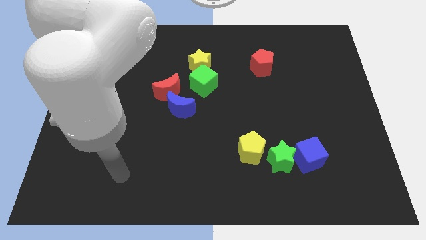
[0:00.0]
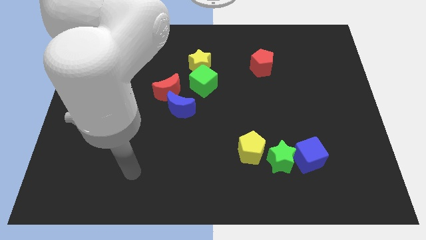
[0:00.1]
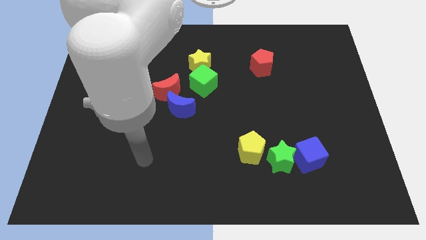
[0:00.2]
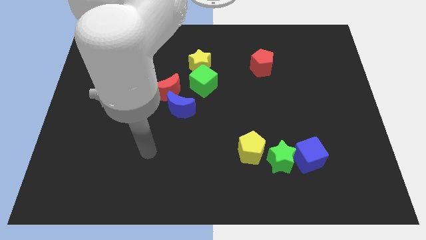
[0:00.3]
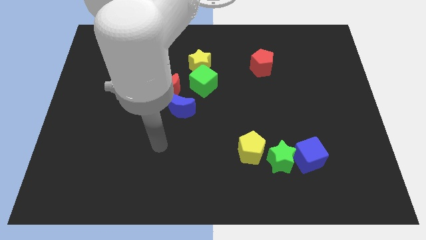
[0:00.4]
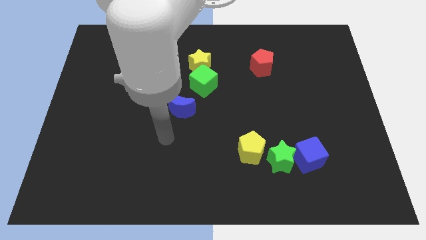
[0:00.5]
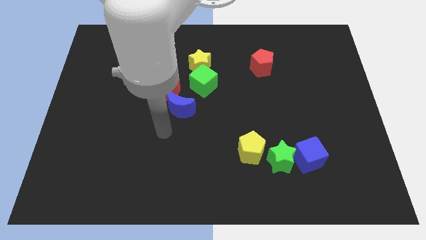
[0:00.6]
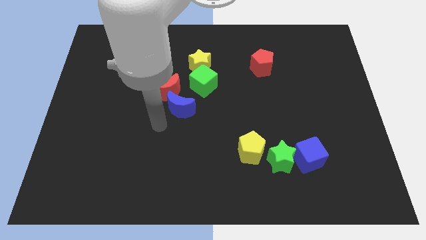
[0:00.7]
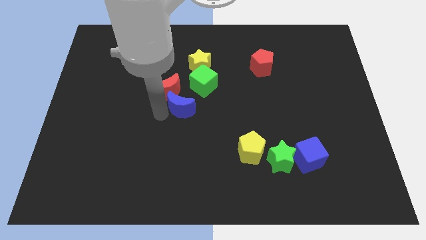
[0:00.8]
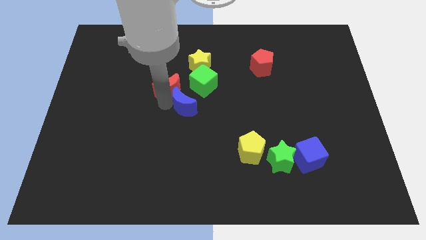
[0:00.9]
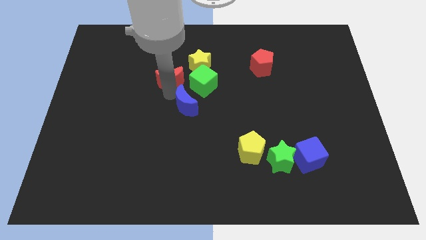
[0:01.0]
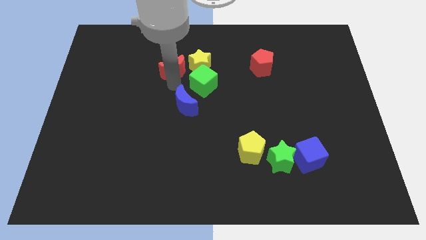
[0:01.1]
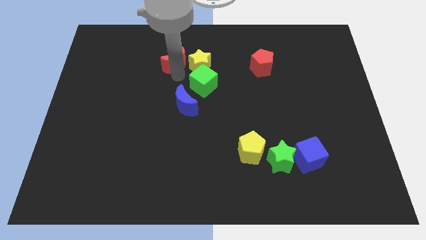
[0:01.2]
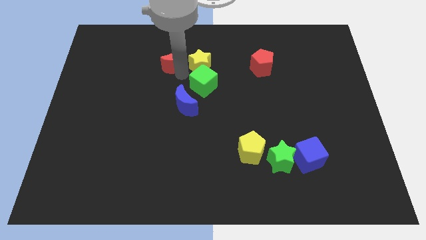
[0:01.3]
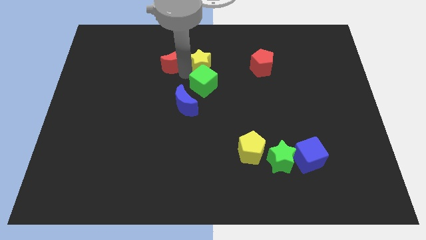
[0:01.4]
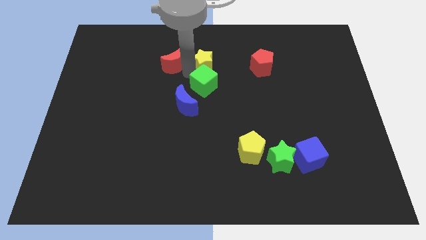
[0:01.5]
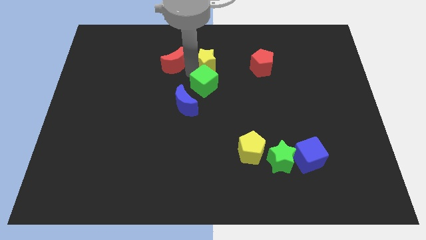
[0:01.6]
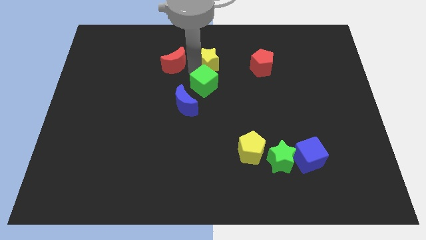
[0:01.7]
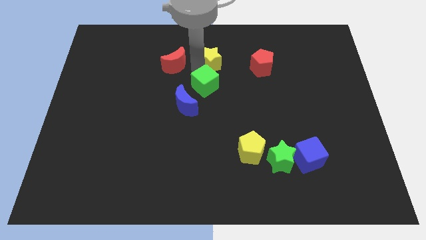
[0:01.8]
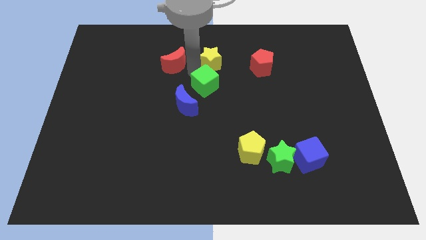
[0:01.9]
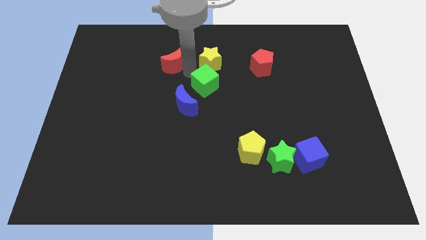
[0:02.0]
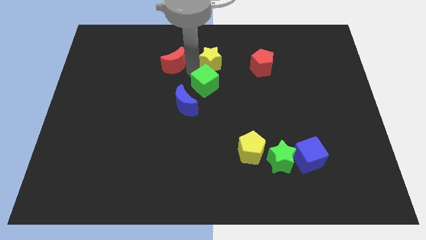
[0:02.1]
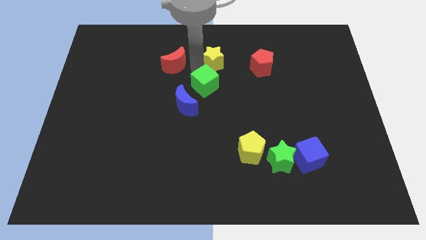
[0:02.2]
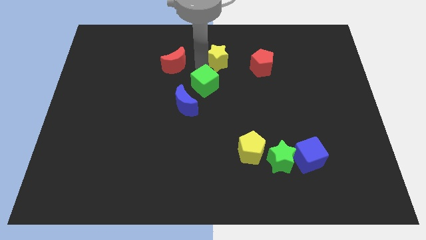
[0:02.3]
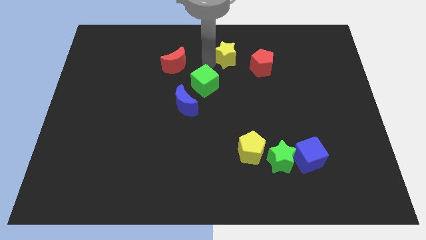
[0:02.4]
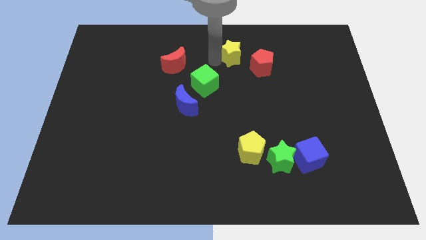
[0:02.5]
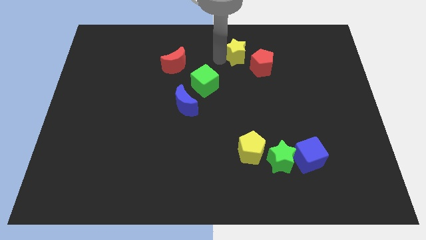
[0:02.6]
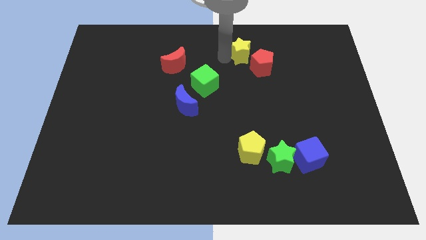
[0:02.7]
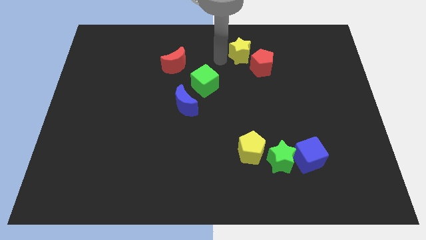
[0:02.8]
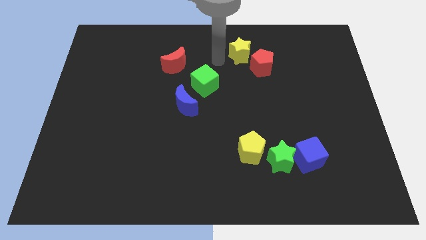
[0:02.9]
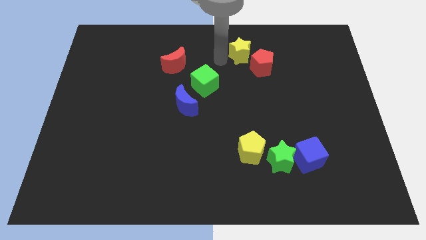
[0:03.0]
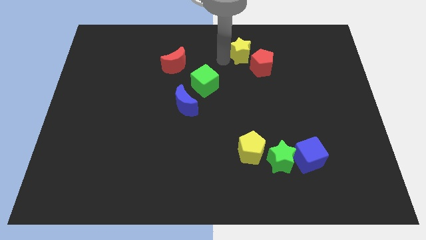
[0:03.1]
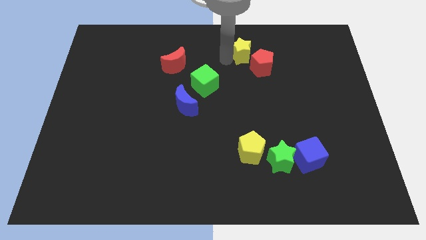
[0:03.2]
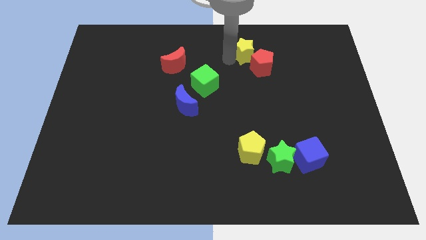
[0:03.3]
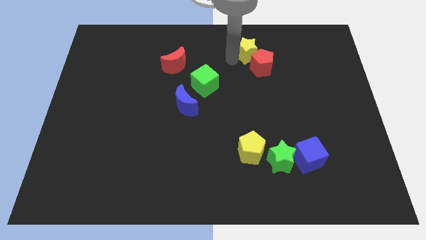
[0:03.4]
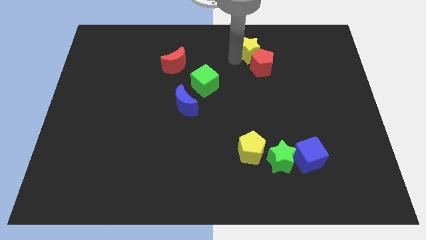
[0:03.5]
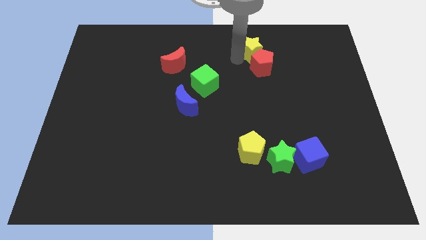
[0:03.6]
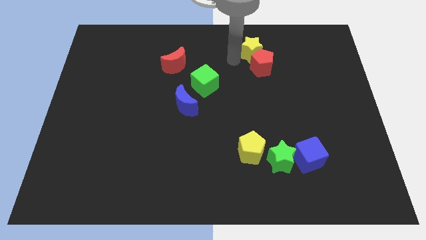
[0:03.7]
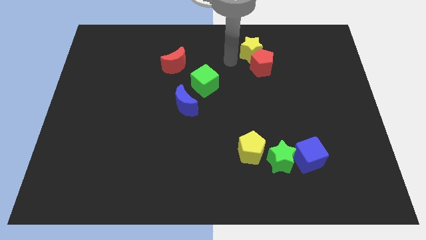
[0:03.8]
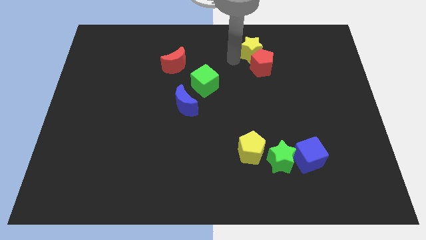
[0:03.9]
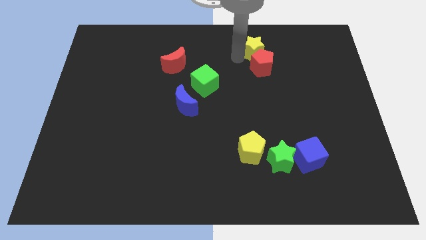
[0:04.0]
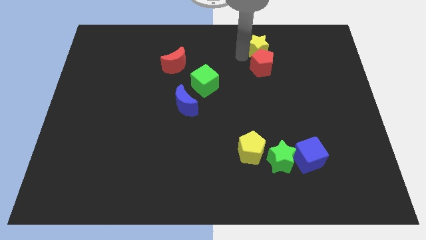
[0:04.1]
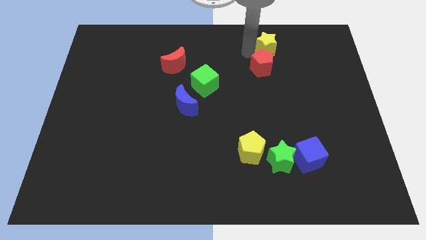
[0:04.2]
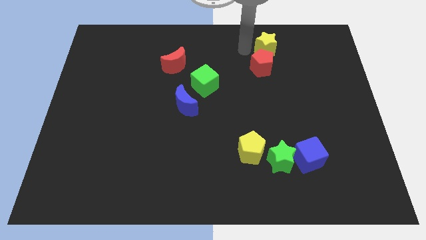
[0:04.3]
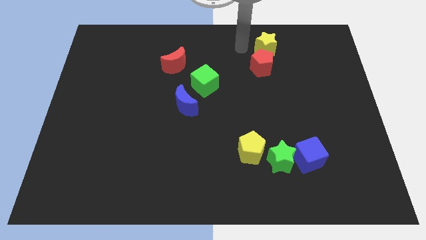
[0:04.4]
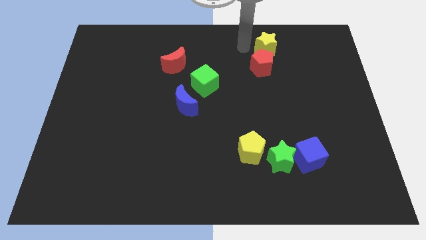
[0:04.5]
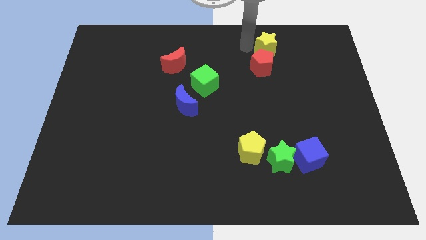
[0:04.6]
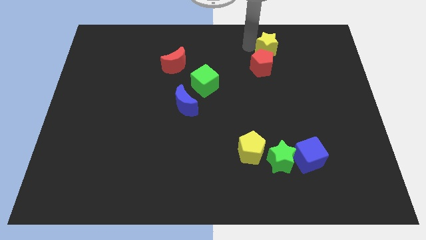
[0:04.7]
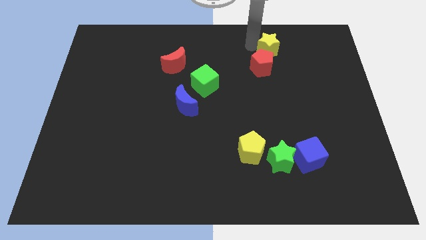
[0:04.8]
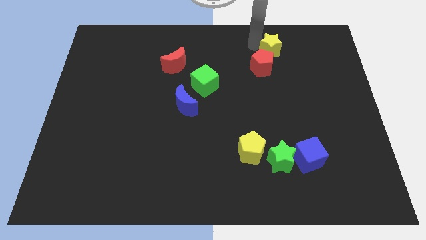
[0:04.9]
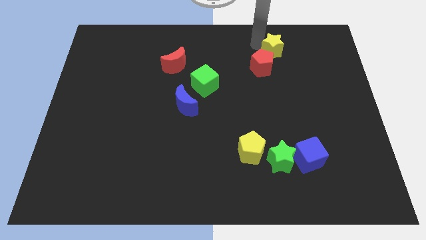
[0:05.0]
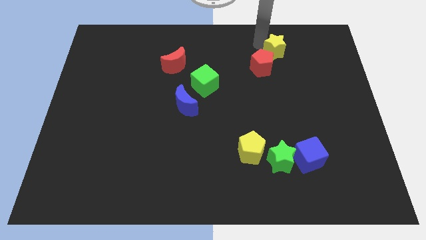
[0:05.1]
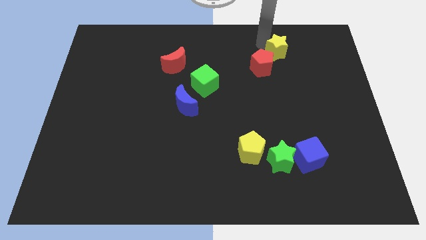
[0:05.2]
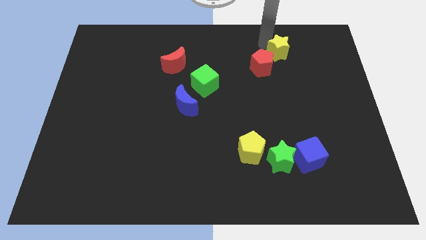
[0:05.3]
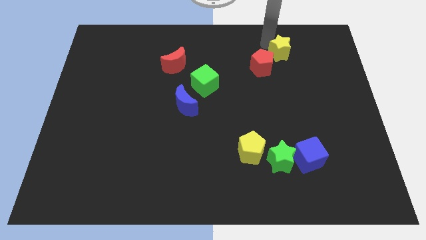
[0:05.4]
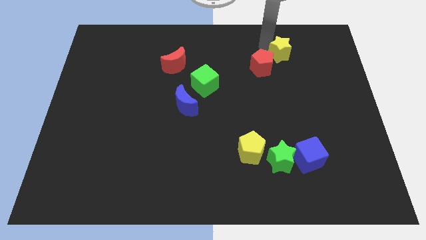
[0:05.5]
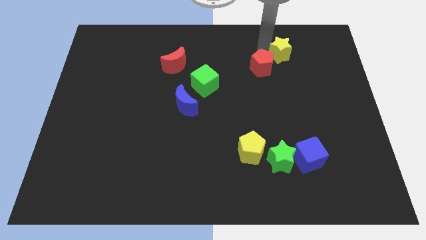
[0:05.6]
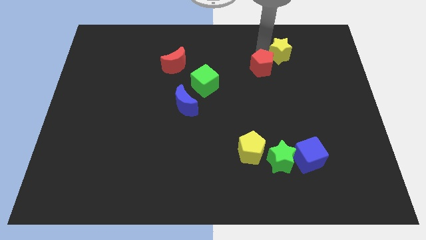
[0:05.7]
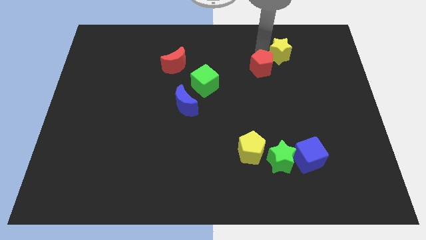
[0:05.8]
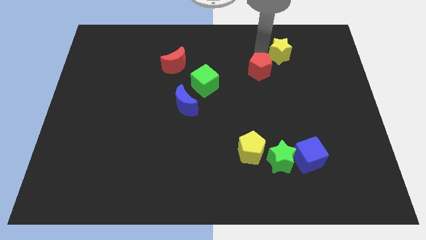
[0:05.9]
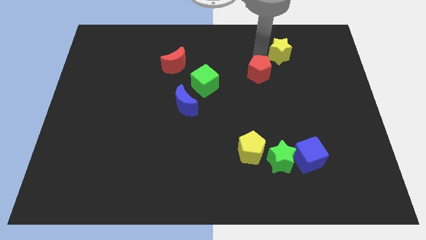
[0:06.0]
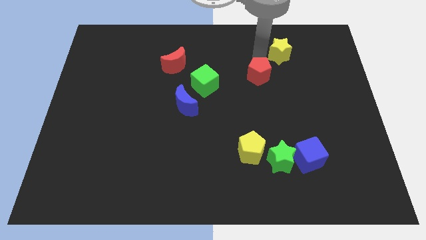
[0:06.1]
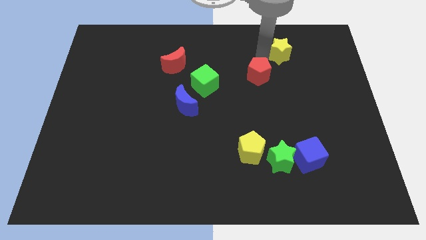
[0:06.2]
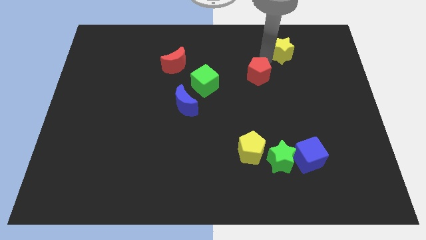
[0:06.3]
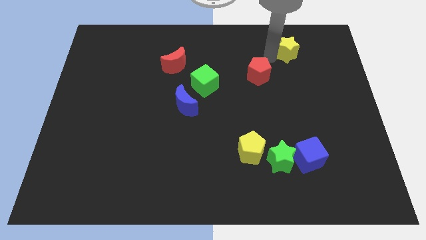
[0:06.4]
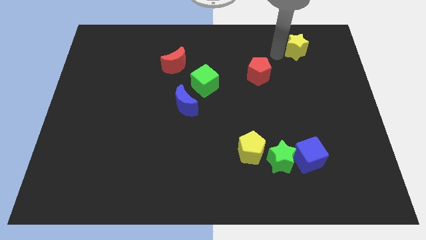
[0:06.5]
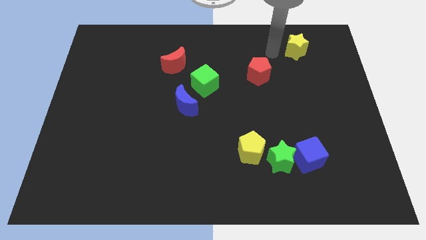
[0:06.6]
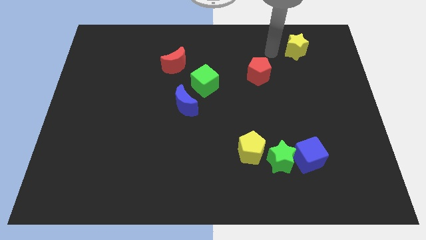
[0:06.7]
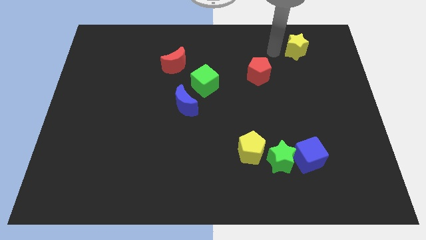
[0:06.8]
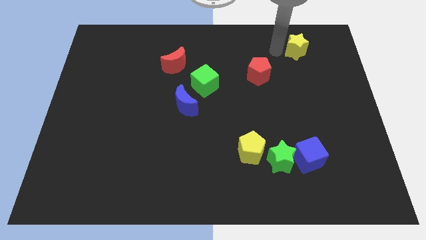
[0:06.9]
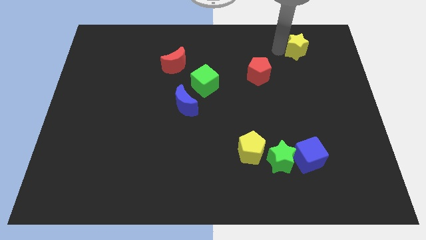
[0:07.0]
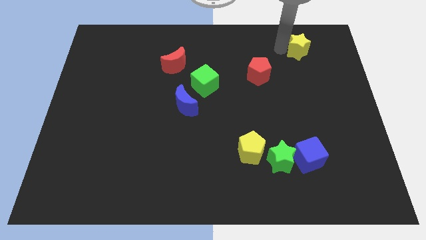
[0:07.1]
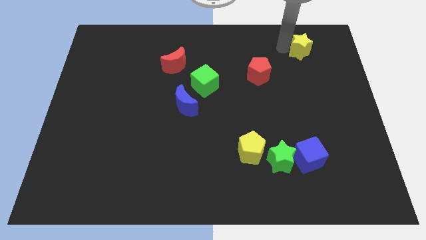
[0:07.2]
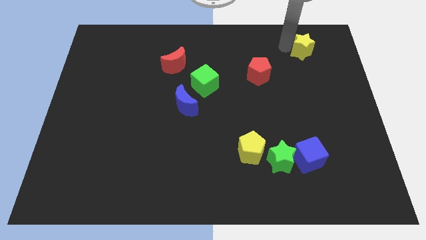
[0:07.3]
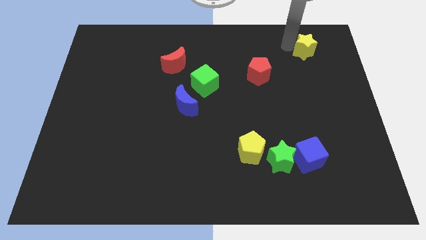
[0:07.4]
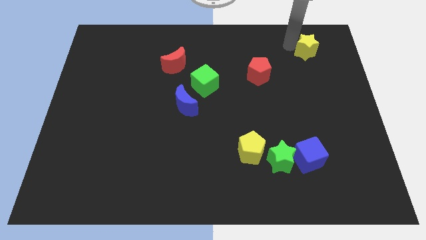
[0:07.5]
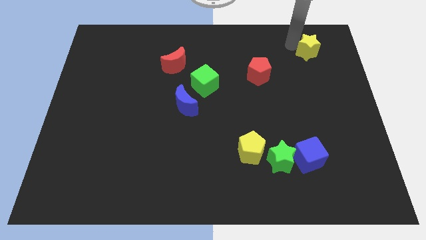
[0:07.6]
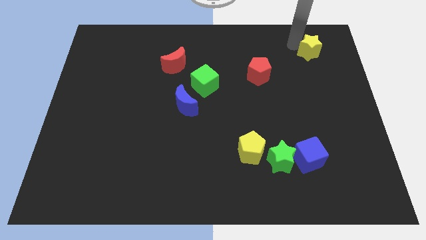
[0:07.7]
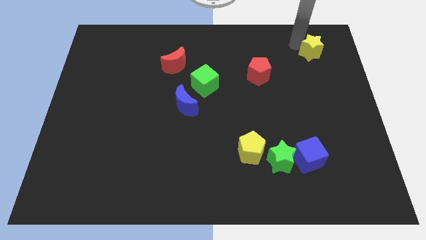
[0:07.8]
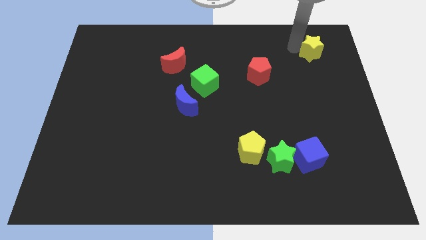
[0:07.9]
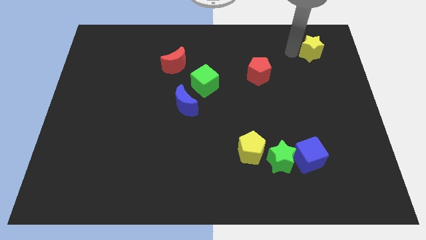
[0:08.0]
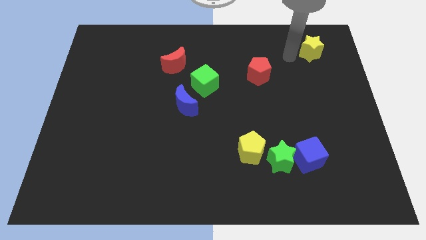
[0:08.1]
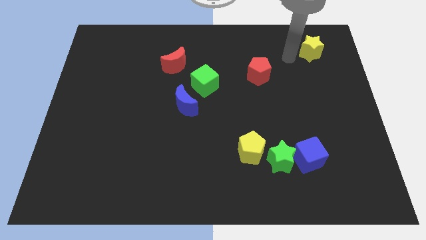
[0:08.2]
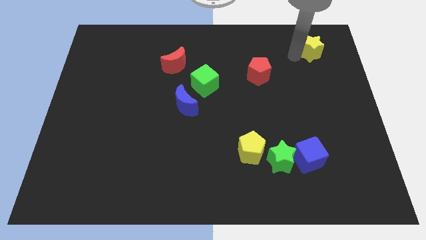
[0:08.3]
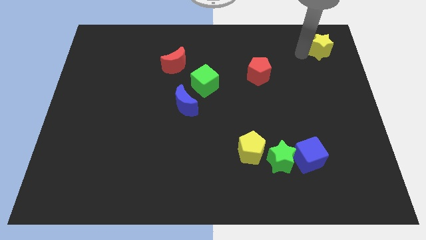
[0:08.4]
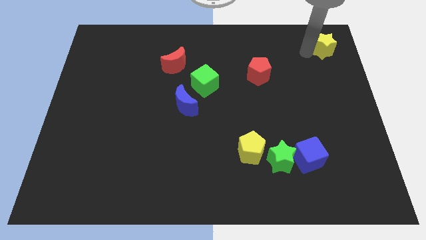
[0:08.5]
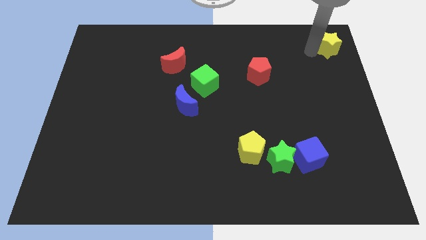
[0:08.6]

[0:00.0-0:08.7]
put the yellow star to the upper right corner
